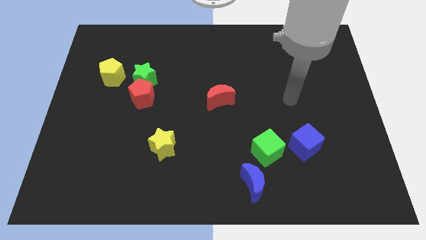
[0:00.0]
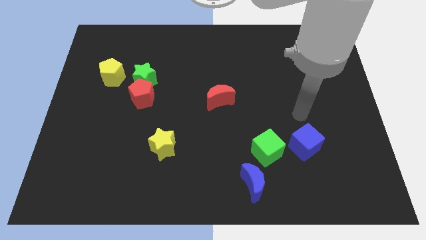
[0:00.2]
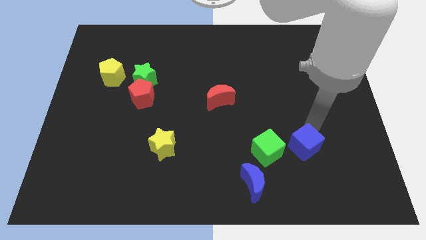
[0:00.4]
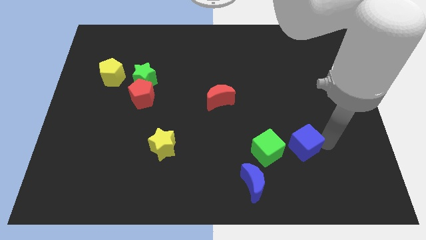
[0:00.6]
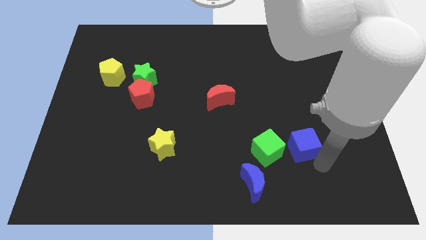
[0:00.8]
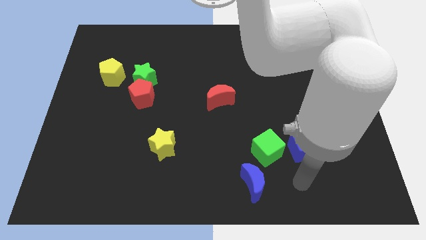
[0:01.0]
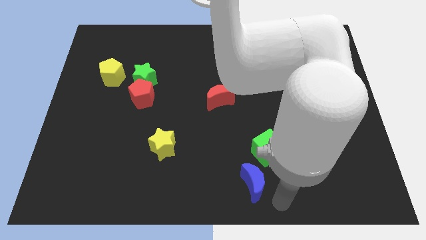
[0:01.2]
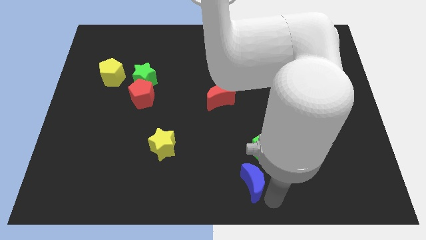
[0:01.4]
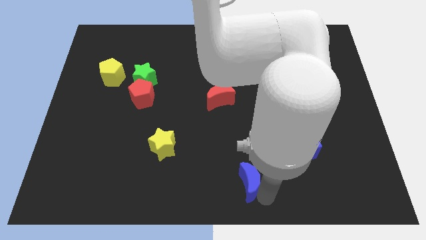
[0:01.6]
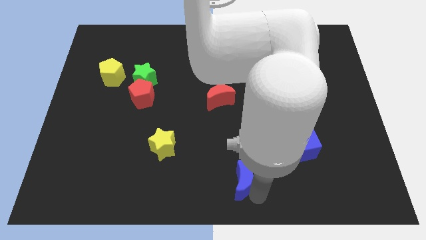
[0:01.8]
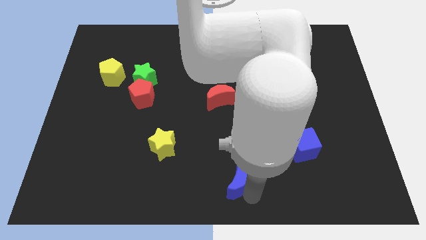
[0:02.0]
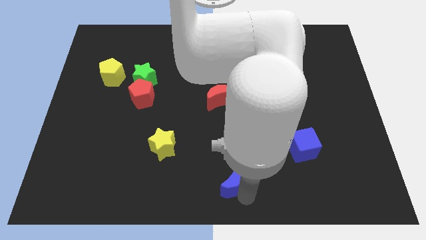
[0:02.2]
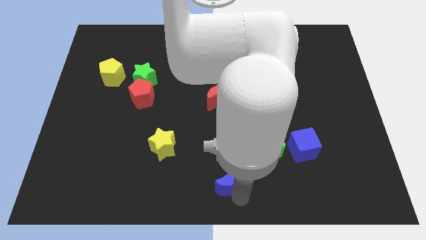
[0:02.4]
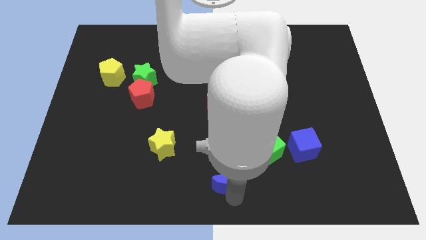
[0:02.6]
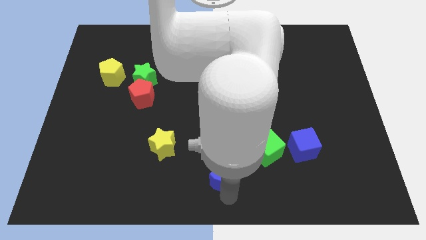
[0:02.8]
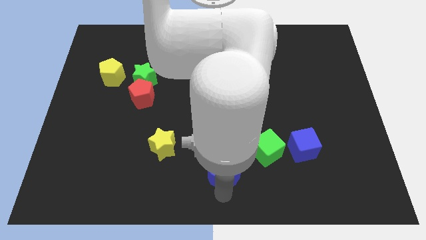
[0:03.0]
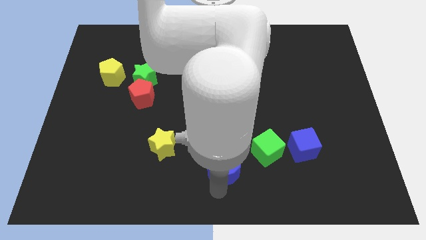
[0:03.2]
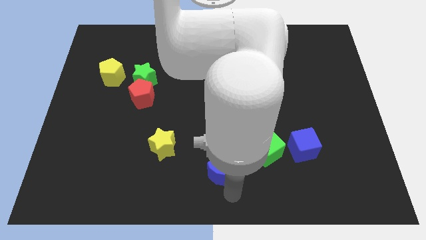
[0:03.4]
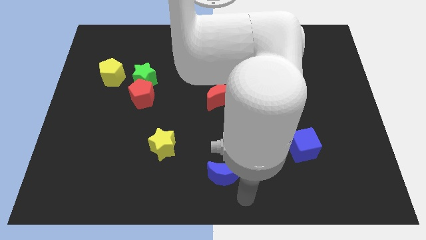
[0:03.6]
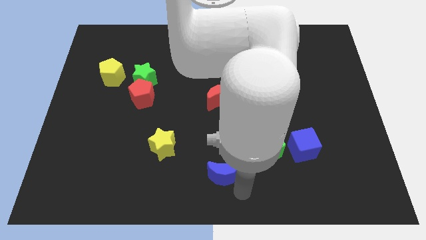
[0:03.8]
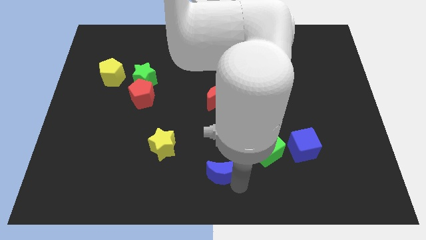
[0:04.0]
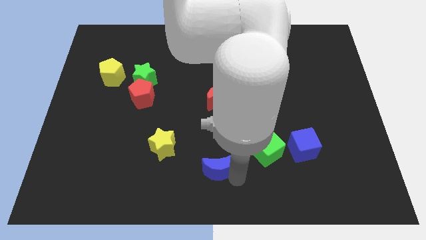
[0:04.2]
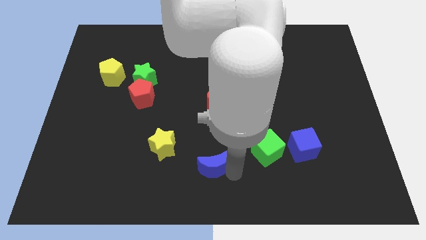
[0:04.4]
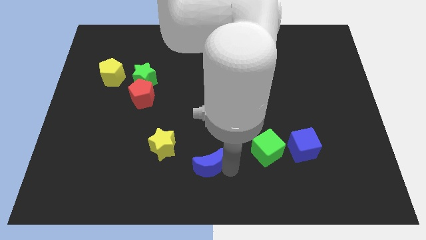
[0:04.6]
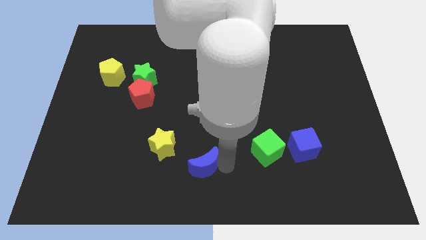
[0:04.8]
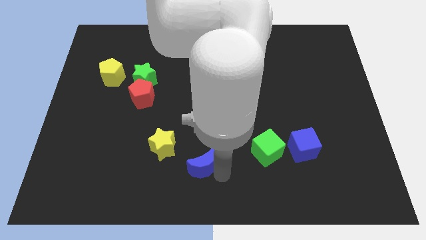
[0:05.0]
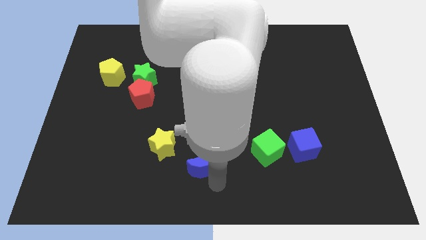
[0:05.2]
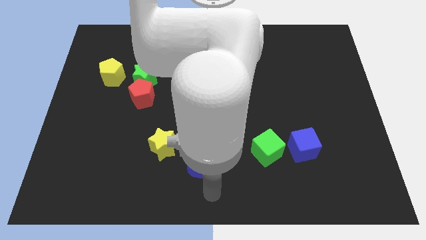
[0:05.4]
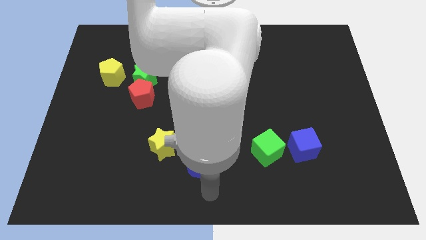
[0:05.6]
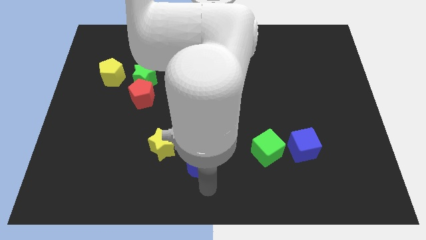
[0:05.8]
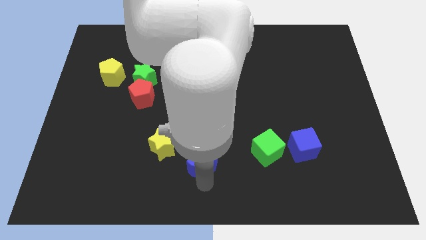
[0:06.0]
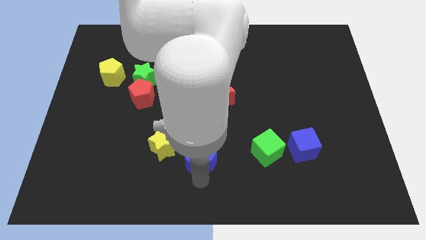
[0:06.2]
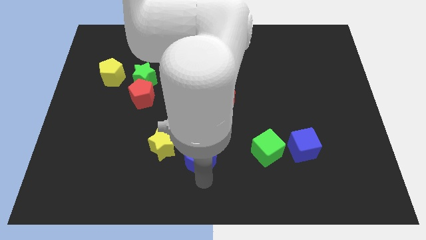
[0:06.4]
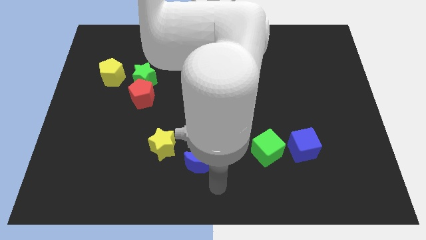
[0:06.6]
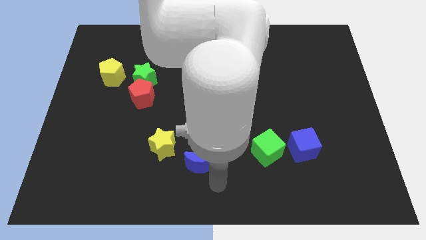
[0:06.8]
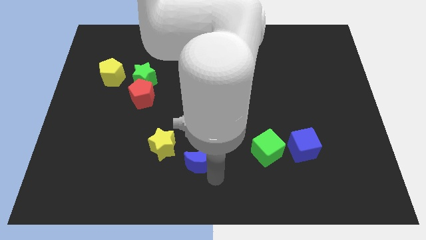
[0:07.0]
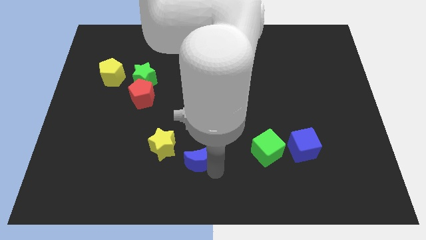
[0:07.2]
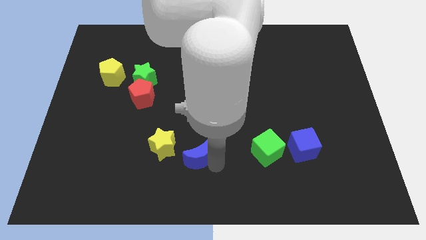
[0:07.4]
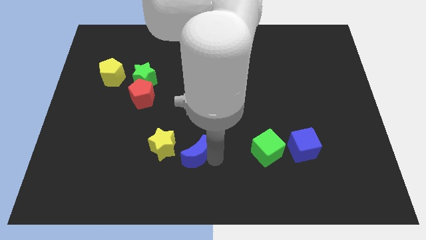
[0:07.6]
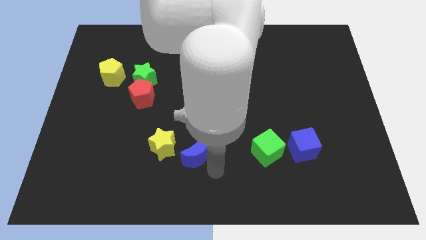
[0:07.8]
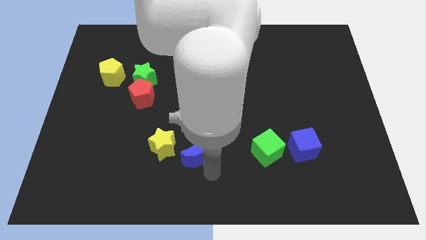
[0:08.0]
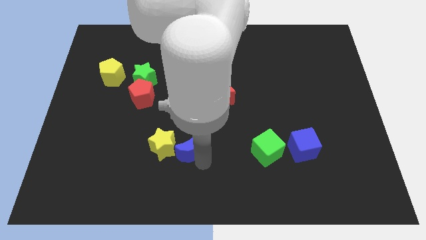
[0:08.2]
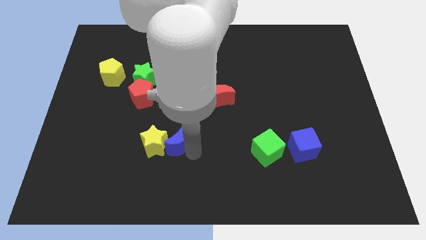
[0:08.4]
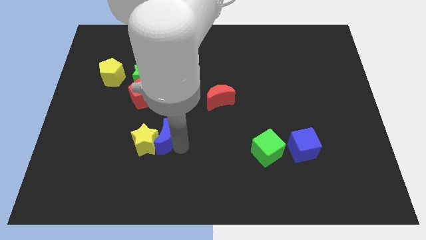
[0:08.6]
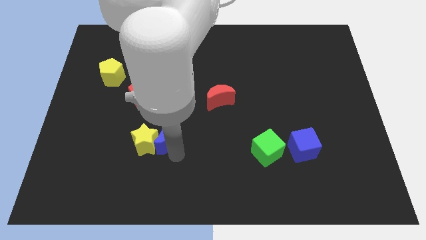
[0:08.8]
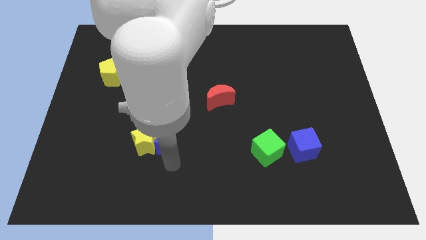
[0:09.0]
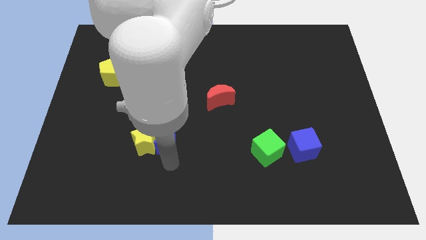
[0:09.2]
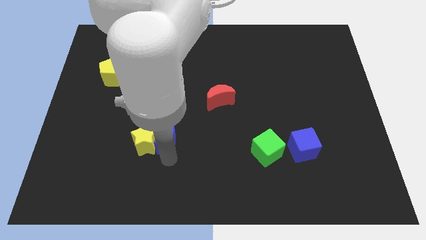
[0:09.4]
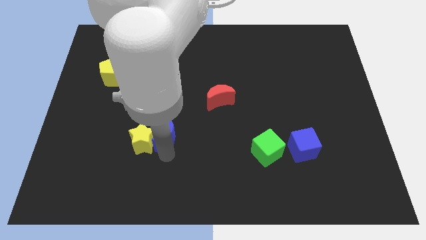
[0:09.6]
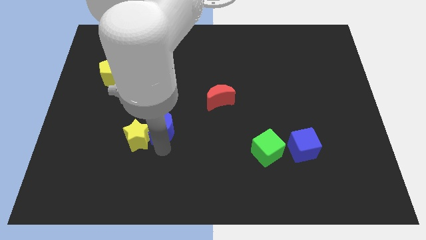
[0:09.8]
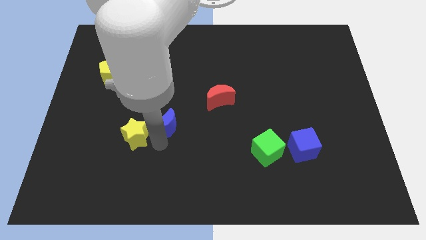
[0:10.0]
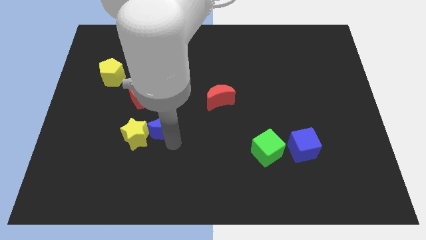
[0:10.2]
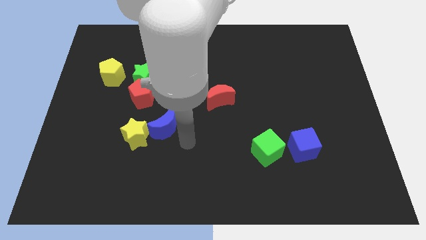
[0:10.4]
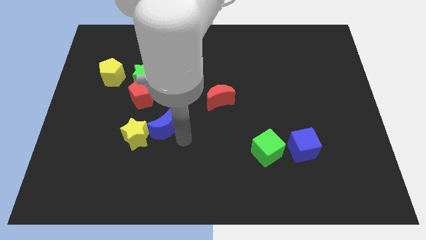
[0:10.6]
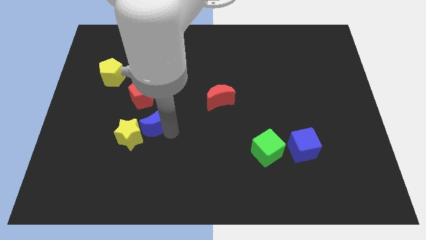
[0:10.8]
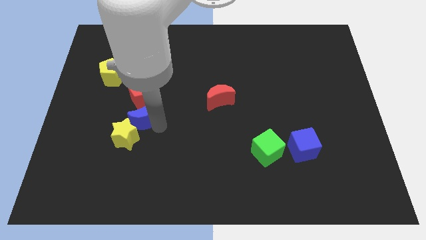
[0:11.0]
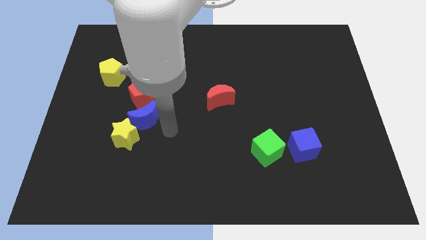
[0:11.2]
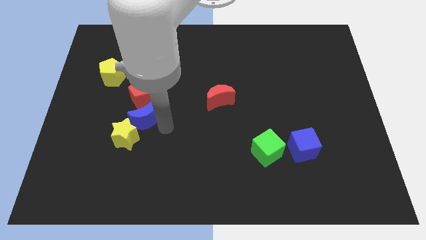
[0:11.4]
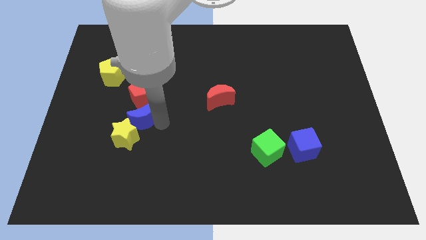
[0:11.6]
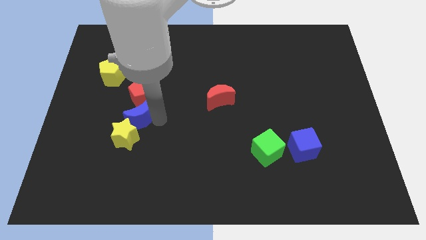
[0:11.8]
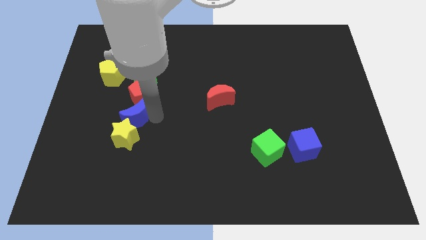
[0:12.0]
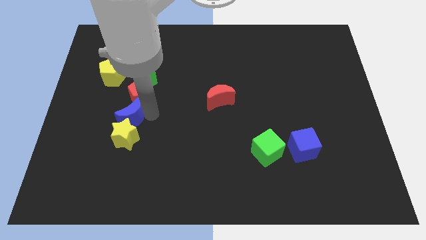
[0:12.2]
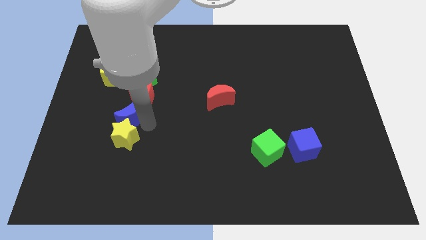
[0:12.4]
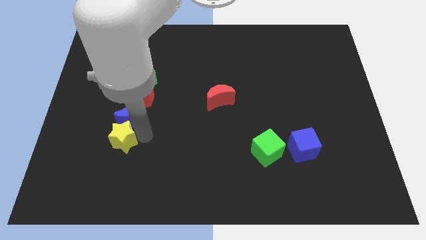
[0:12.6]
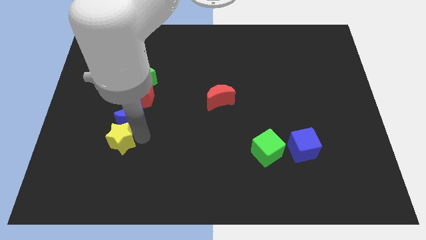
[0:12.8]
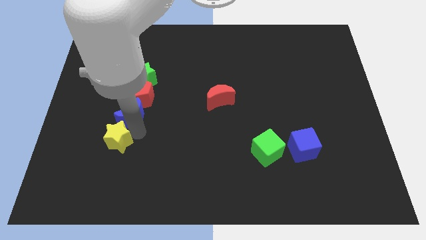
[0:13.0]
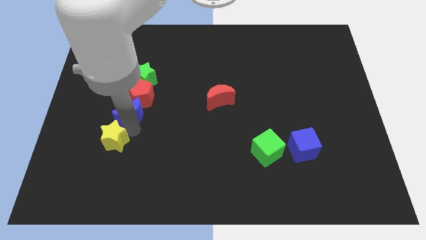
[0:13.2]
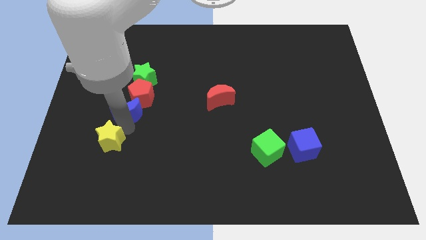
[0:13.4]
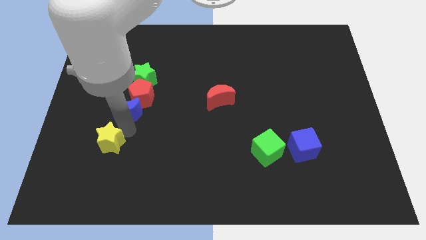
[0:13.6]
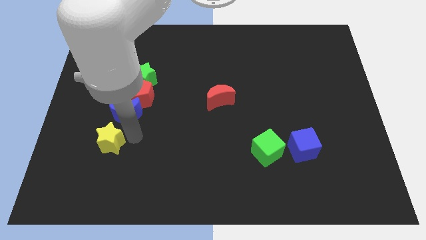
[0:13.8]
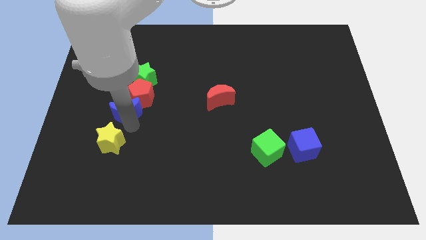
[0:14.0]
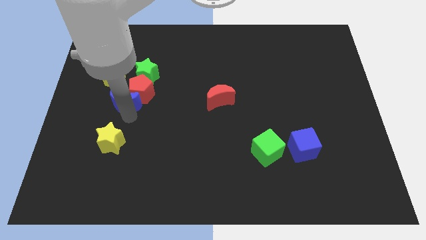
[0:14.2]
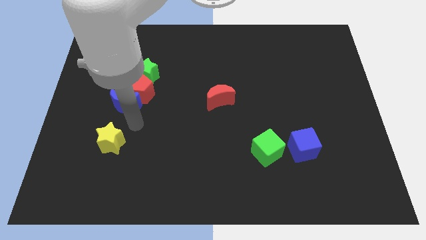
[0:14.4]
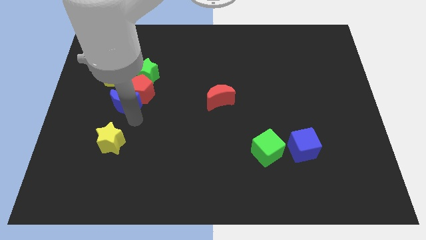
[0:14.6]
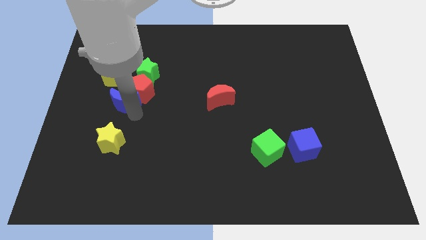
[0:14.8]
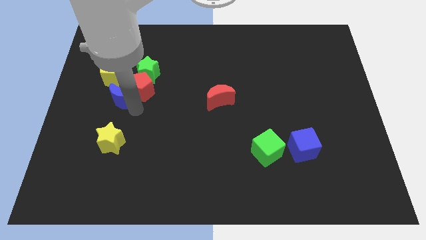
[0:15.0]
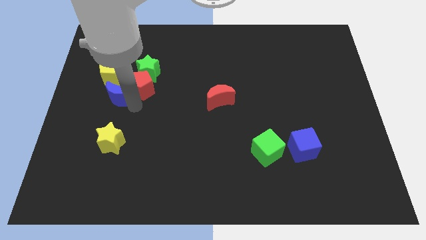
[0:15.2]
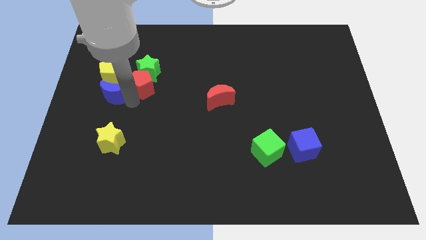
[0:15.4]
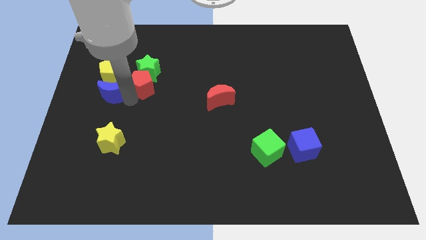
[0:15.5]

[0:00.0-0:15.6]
push the blue moon next to the yellow pentagon
